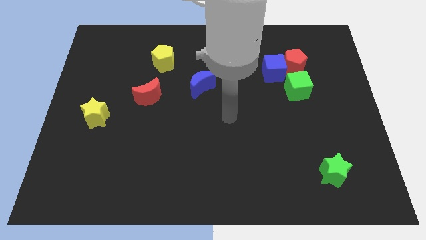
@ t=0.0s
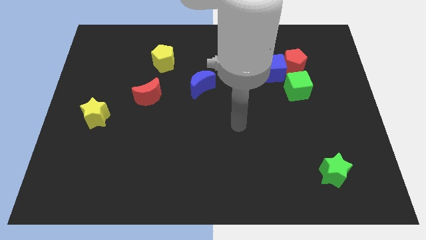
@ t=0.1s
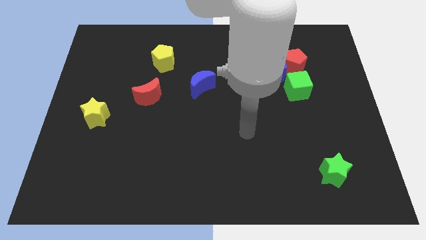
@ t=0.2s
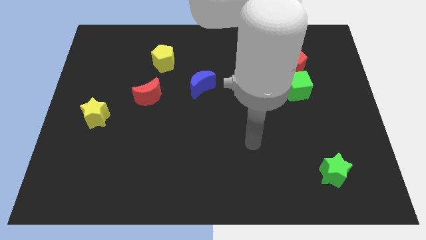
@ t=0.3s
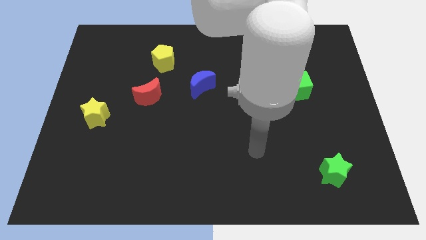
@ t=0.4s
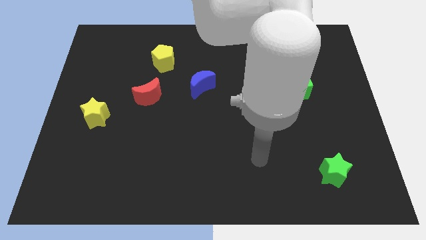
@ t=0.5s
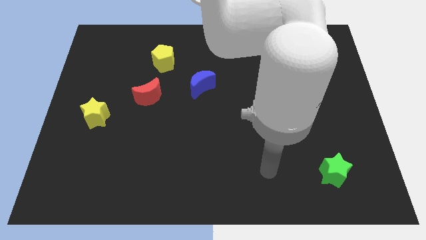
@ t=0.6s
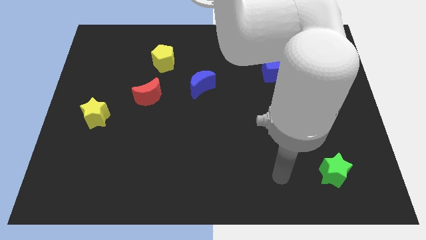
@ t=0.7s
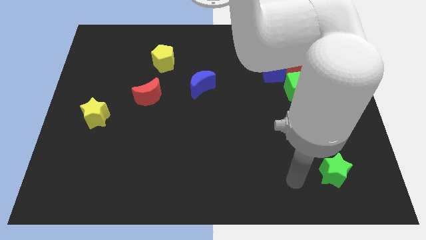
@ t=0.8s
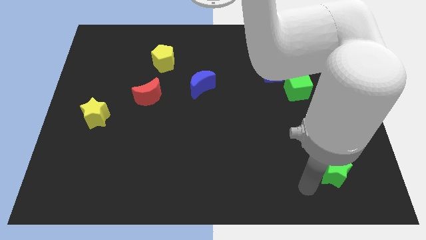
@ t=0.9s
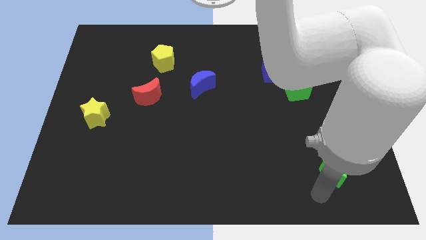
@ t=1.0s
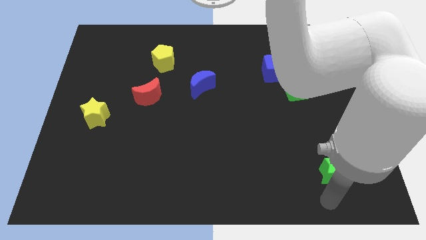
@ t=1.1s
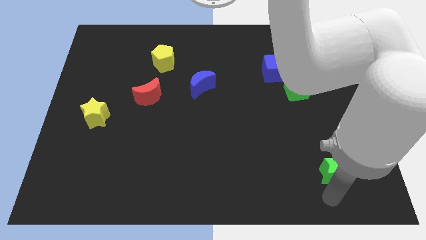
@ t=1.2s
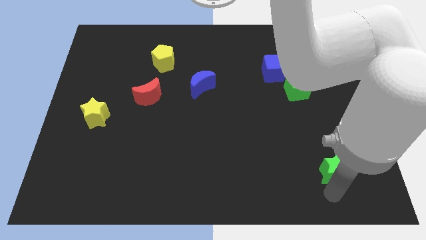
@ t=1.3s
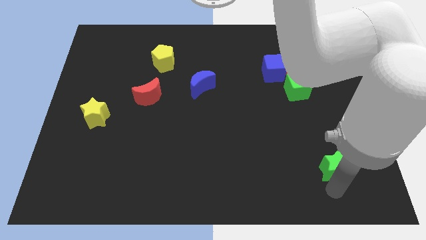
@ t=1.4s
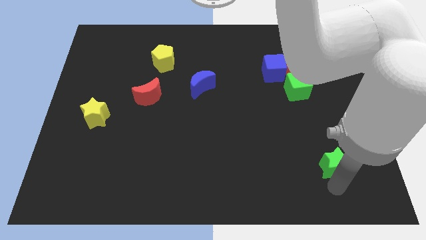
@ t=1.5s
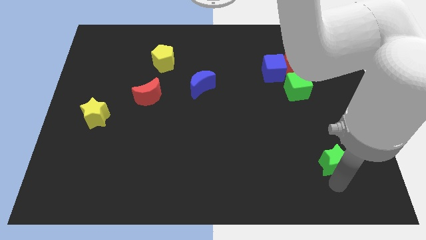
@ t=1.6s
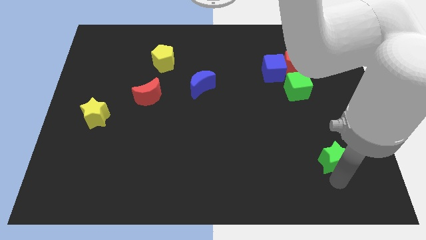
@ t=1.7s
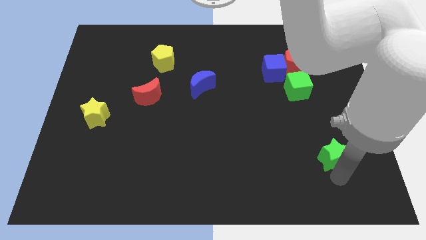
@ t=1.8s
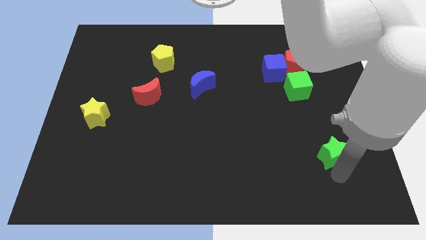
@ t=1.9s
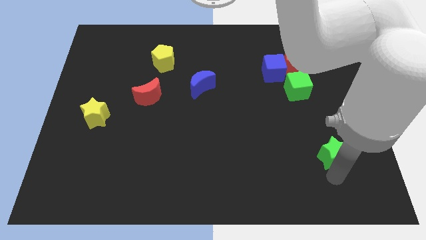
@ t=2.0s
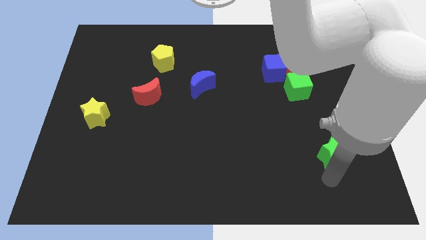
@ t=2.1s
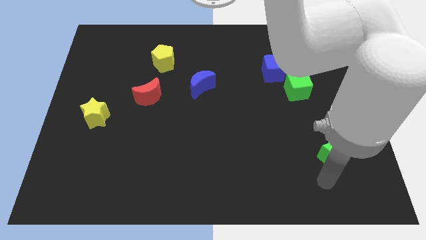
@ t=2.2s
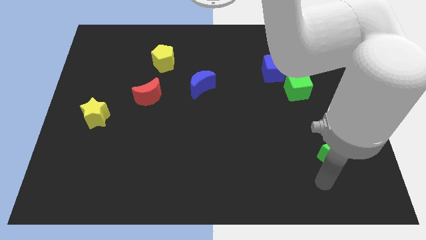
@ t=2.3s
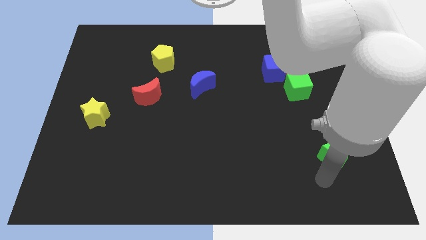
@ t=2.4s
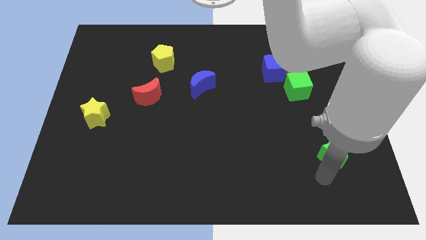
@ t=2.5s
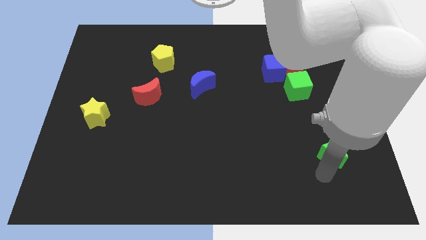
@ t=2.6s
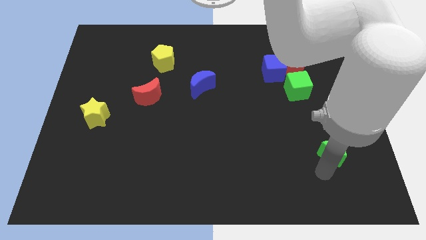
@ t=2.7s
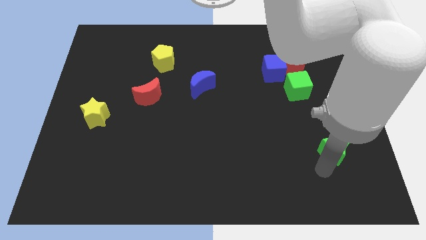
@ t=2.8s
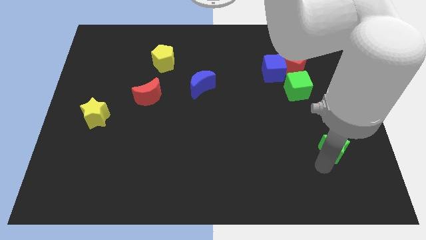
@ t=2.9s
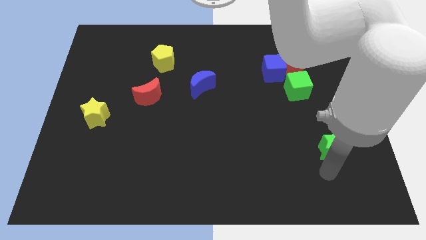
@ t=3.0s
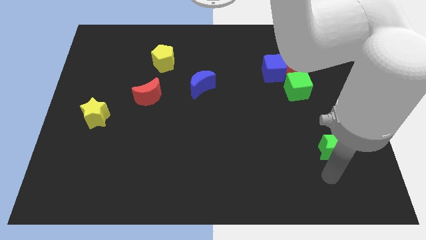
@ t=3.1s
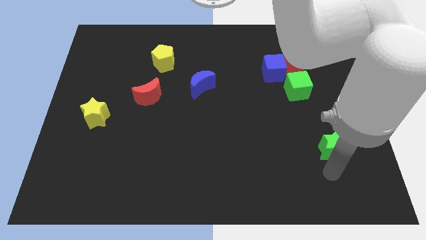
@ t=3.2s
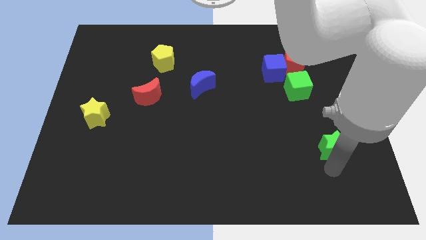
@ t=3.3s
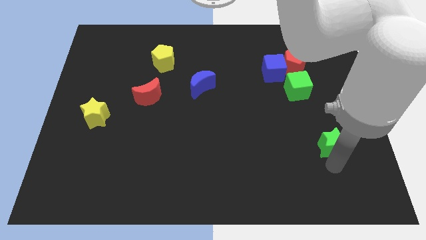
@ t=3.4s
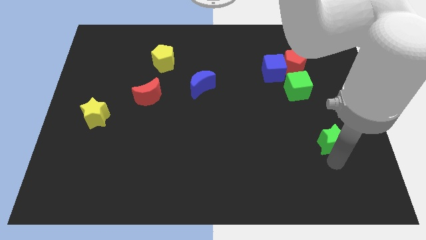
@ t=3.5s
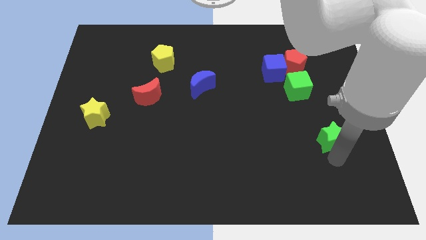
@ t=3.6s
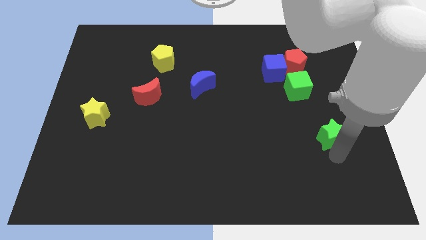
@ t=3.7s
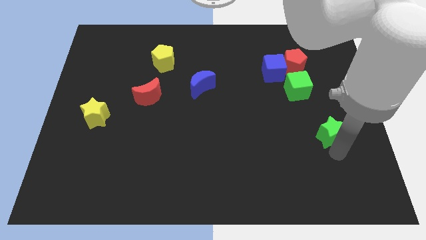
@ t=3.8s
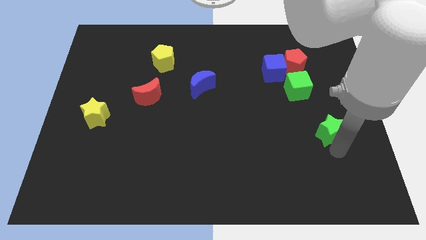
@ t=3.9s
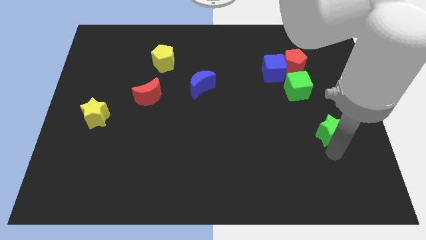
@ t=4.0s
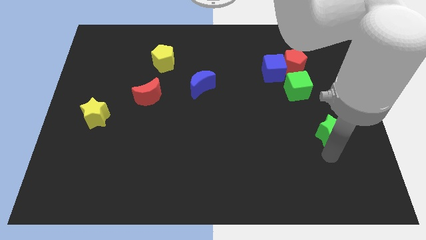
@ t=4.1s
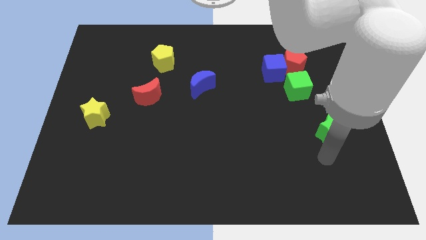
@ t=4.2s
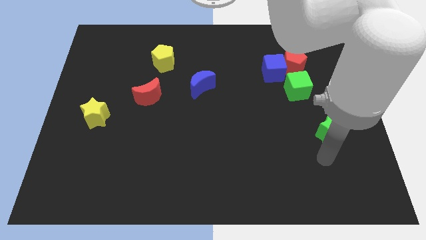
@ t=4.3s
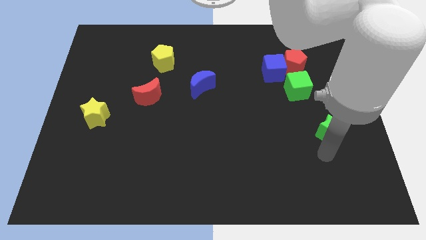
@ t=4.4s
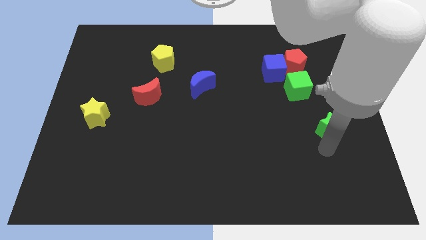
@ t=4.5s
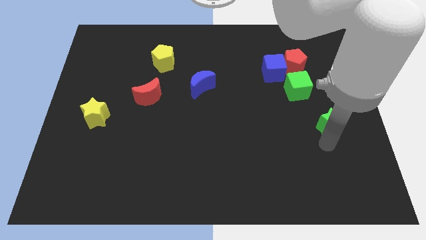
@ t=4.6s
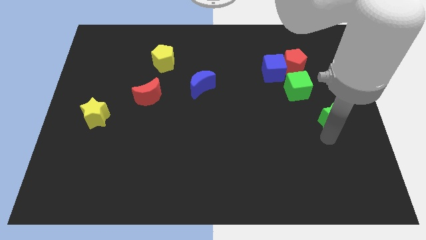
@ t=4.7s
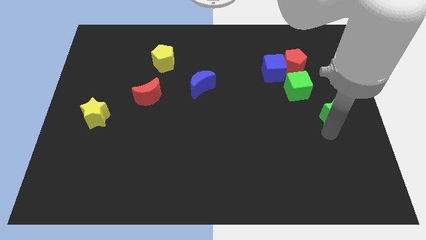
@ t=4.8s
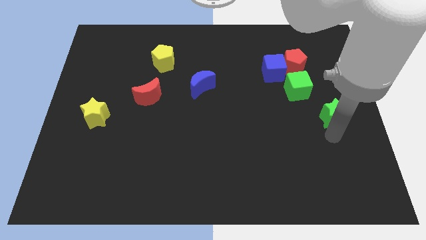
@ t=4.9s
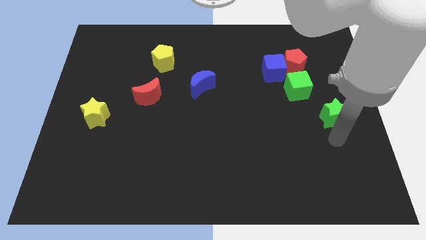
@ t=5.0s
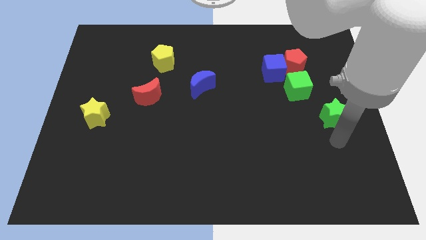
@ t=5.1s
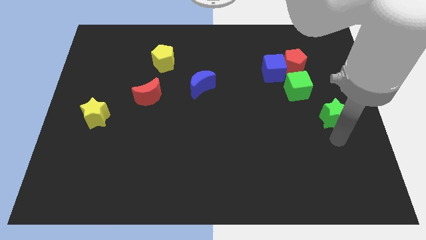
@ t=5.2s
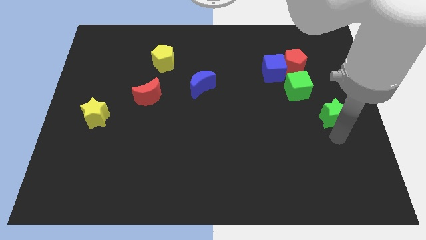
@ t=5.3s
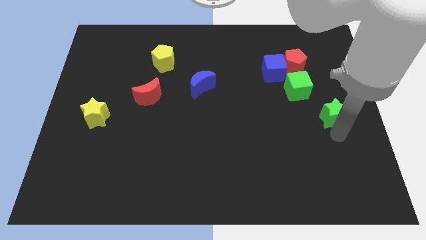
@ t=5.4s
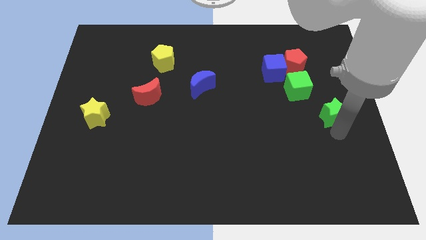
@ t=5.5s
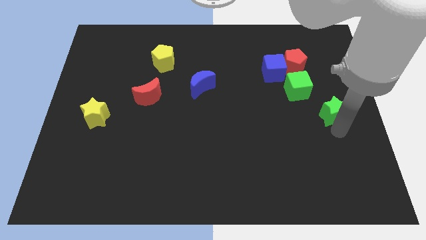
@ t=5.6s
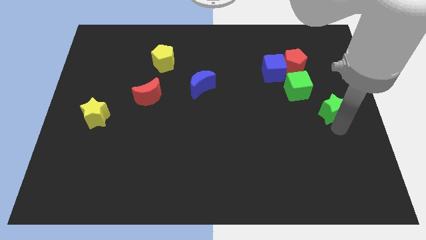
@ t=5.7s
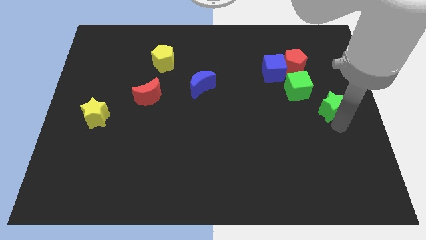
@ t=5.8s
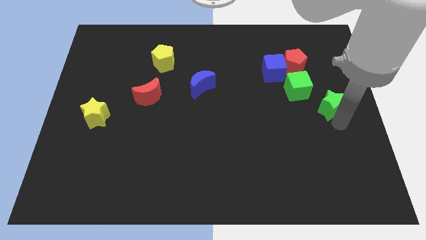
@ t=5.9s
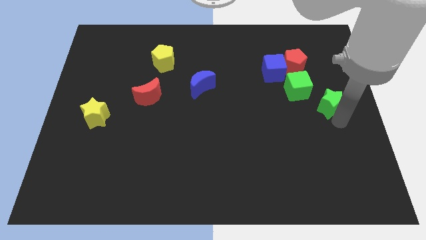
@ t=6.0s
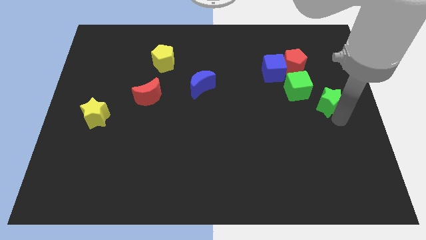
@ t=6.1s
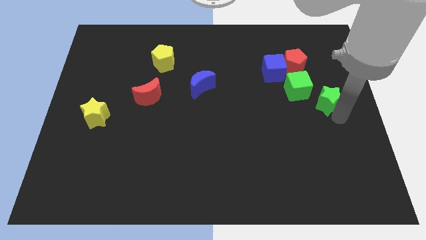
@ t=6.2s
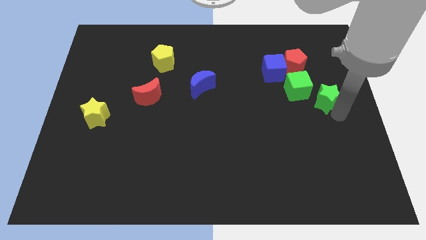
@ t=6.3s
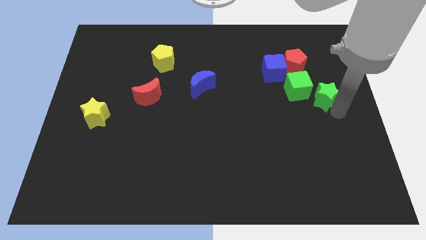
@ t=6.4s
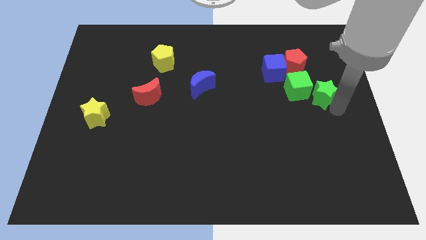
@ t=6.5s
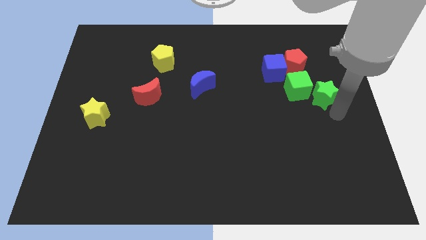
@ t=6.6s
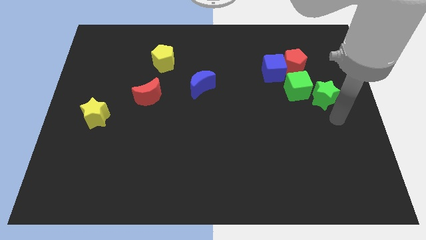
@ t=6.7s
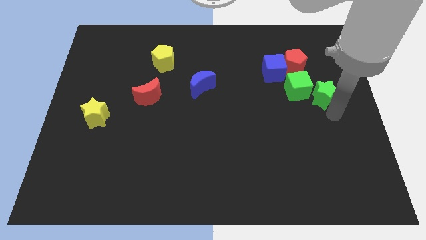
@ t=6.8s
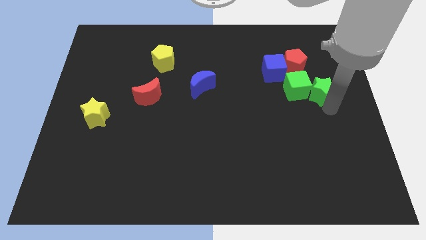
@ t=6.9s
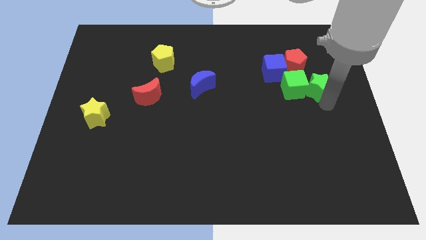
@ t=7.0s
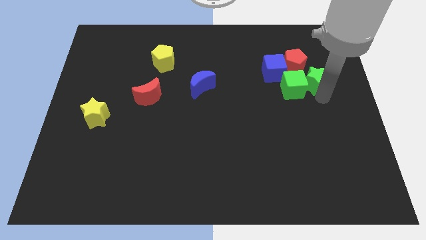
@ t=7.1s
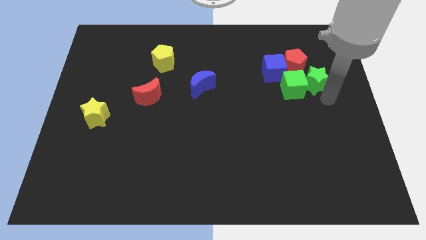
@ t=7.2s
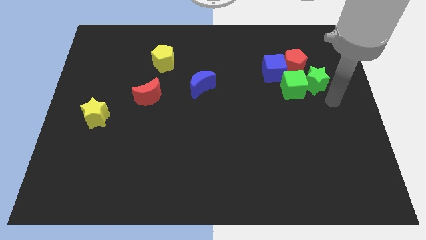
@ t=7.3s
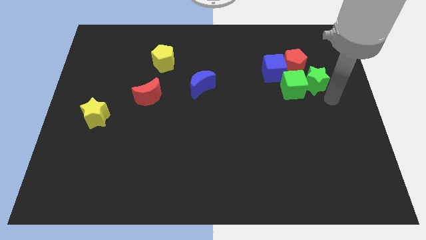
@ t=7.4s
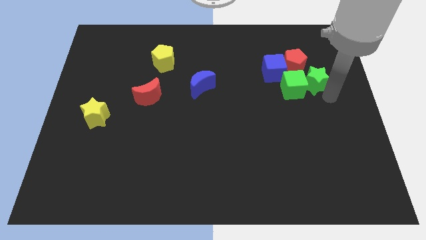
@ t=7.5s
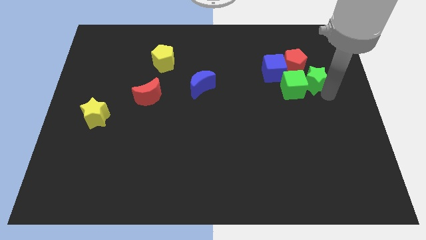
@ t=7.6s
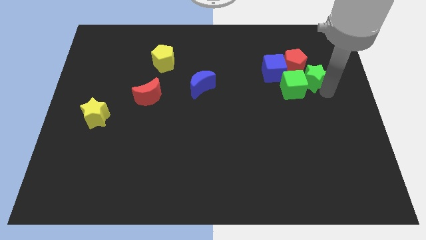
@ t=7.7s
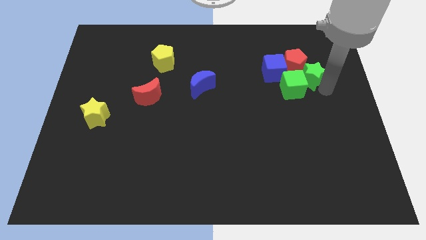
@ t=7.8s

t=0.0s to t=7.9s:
move the green star towards the red pentagon

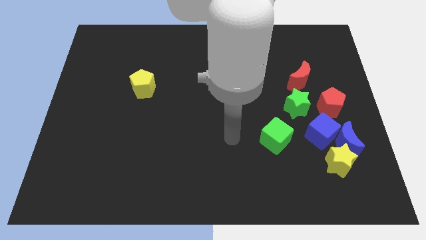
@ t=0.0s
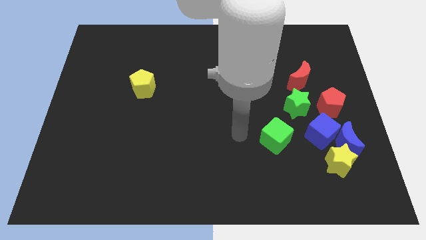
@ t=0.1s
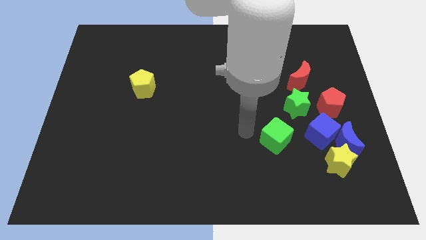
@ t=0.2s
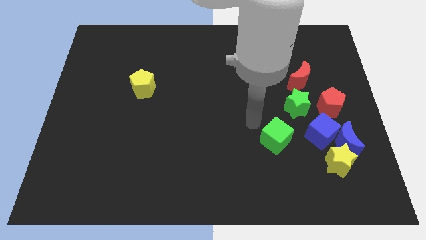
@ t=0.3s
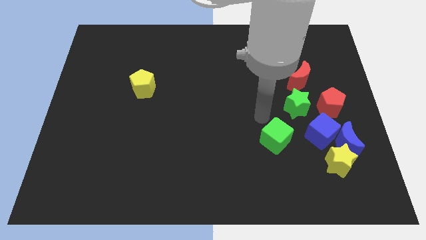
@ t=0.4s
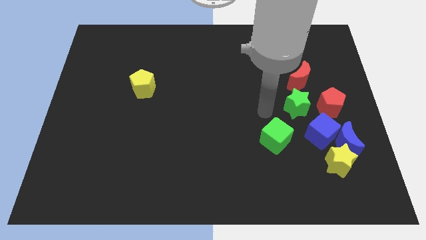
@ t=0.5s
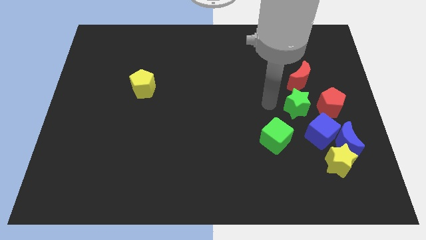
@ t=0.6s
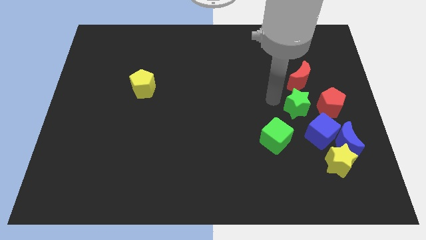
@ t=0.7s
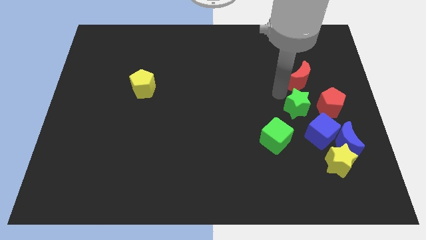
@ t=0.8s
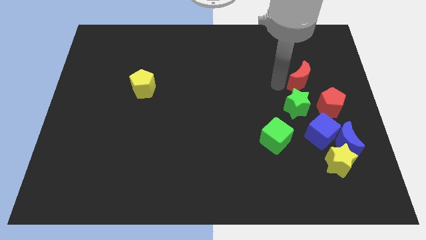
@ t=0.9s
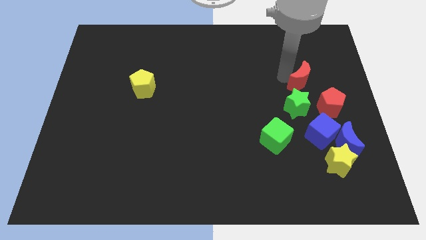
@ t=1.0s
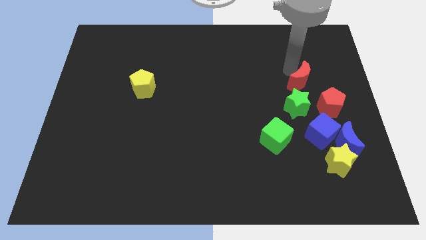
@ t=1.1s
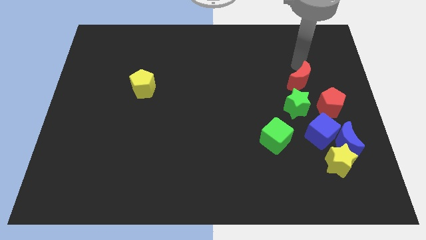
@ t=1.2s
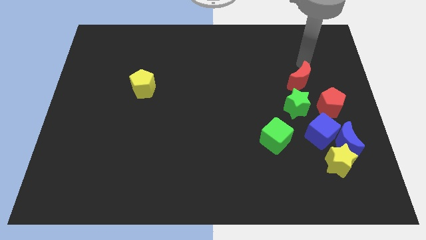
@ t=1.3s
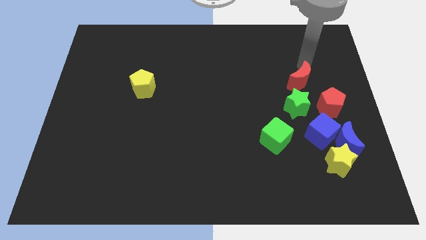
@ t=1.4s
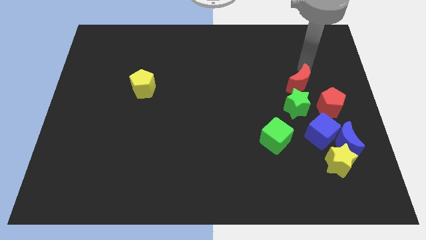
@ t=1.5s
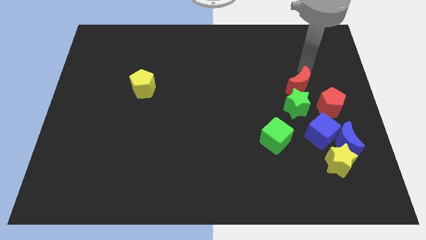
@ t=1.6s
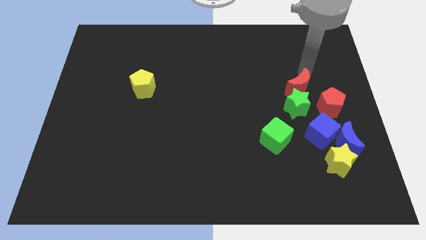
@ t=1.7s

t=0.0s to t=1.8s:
move the red moon next to the green star
